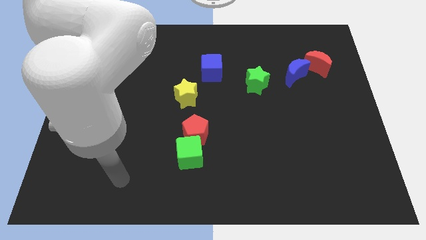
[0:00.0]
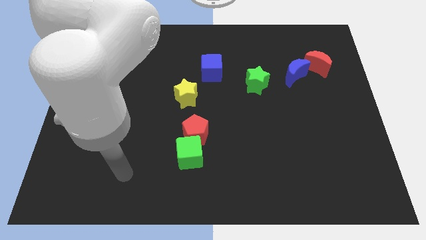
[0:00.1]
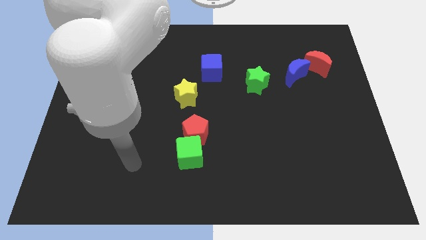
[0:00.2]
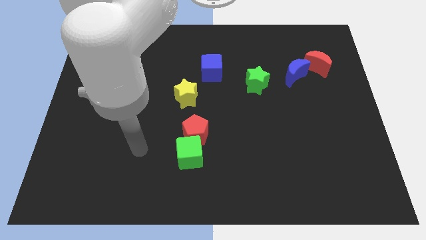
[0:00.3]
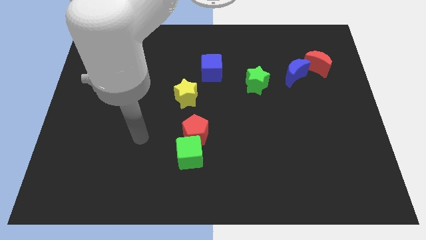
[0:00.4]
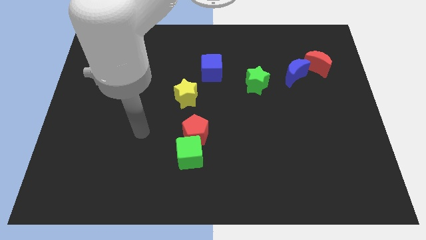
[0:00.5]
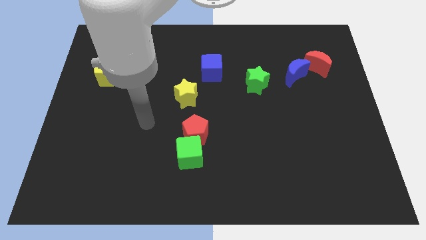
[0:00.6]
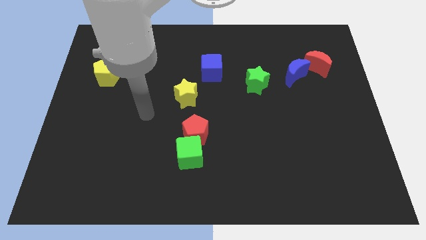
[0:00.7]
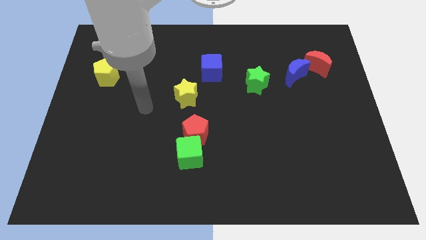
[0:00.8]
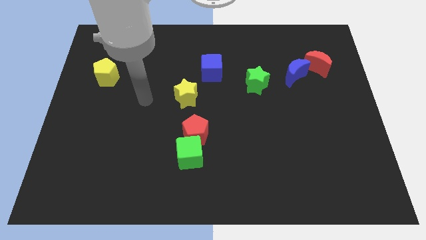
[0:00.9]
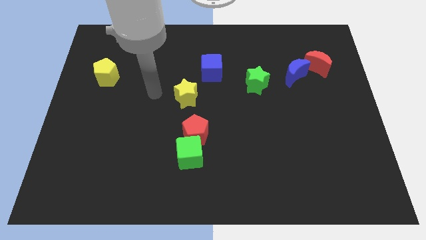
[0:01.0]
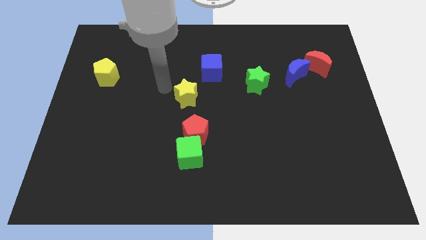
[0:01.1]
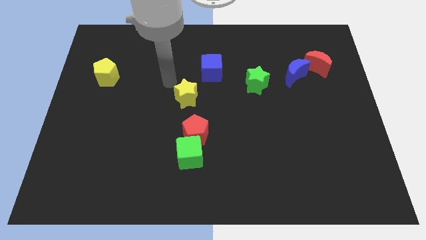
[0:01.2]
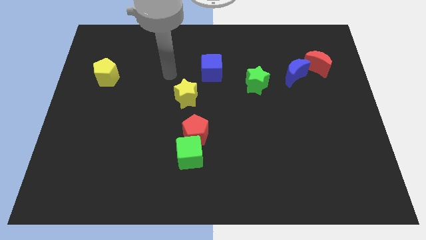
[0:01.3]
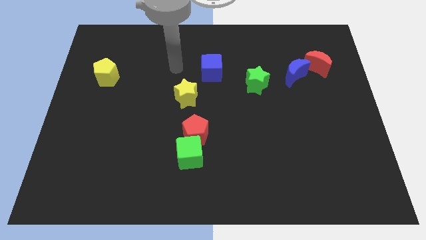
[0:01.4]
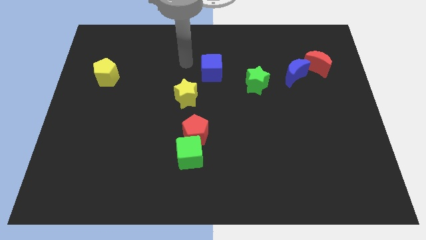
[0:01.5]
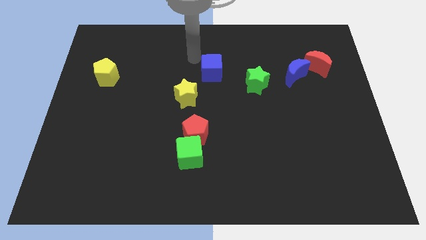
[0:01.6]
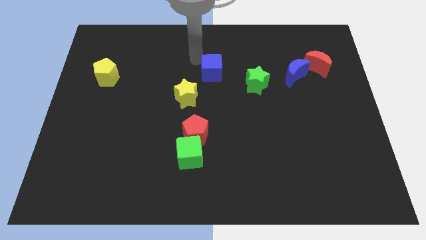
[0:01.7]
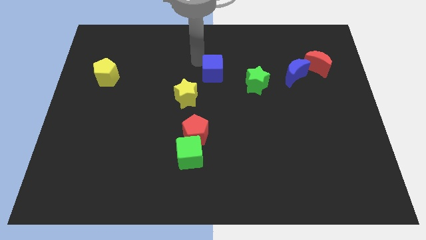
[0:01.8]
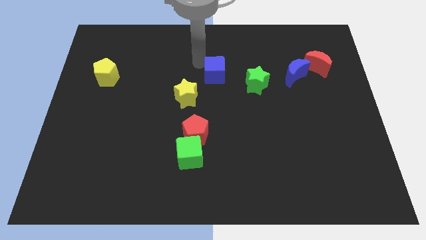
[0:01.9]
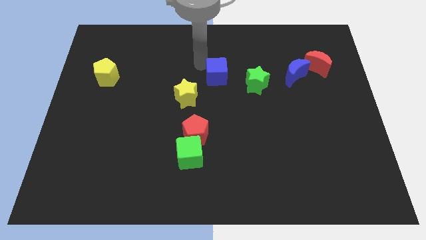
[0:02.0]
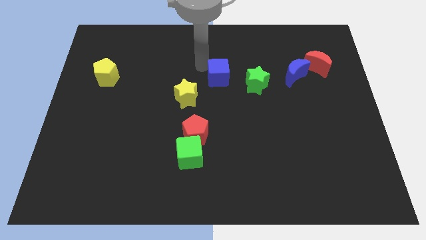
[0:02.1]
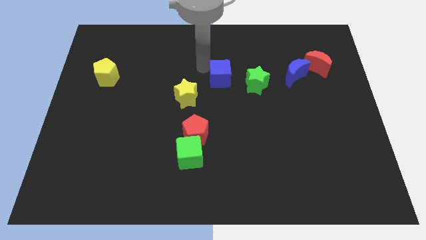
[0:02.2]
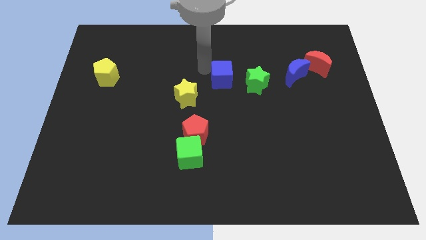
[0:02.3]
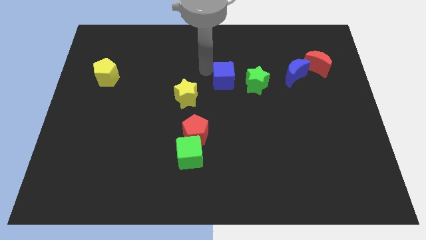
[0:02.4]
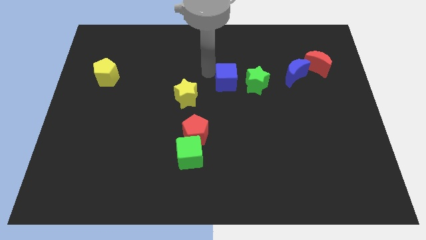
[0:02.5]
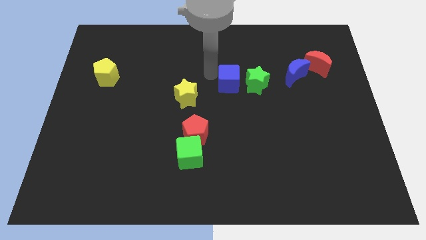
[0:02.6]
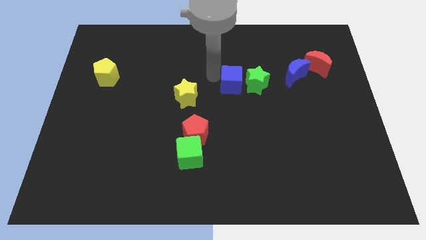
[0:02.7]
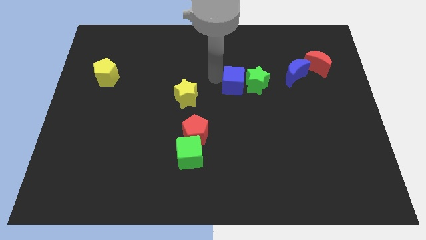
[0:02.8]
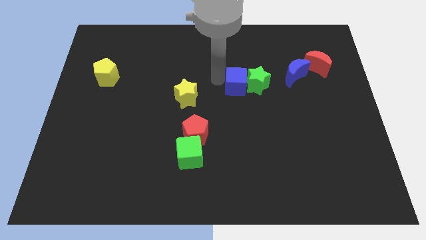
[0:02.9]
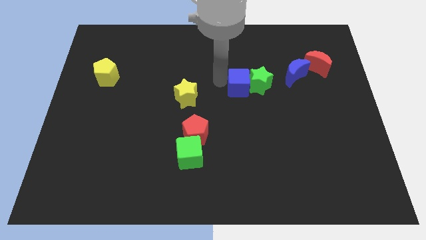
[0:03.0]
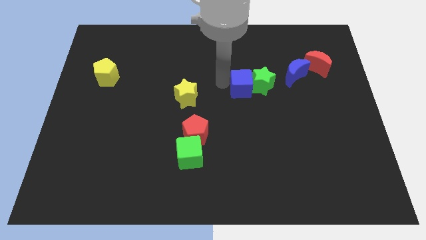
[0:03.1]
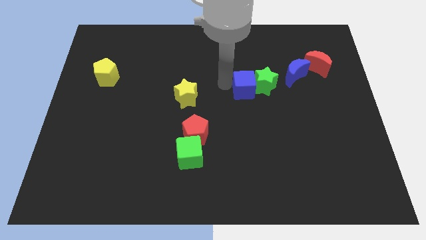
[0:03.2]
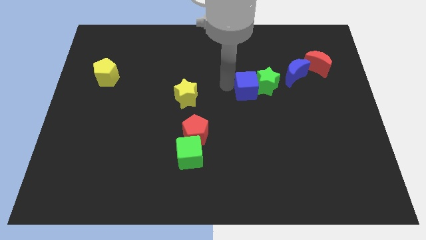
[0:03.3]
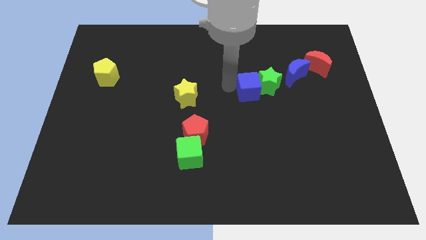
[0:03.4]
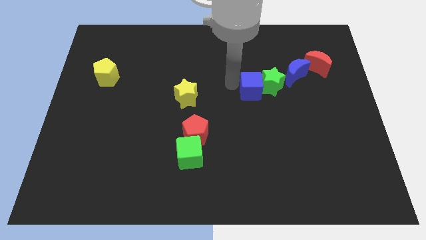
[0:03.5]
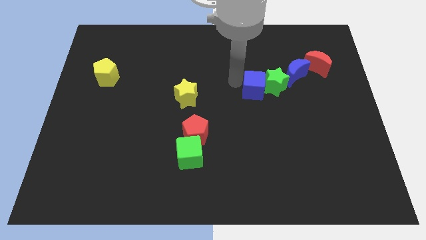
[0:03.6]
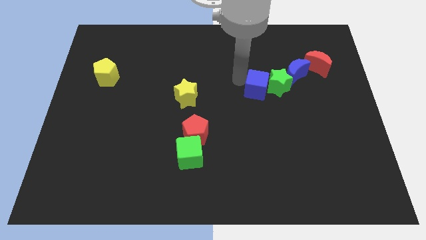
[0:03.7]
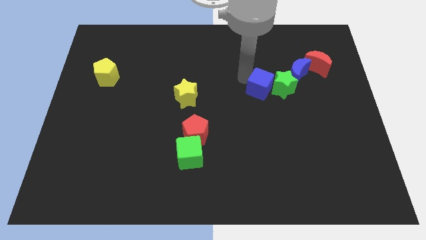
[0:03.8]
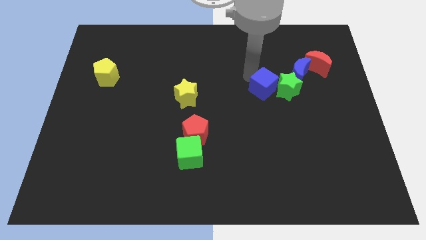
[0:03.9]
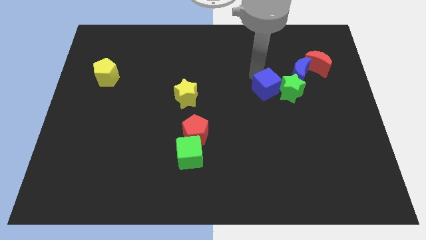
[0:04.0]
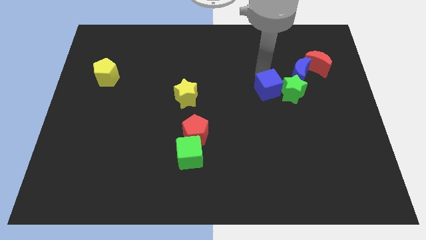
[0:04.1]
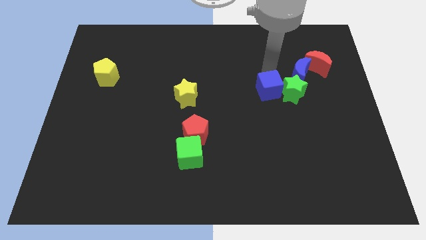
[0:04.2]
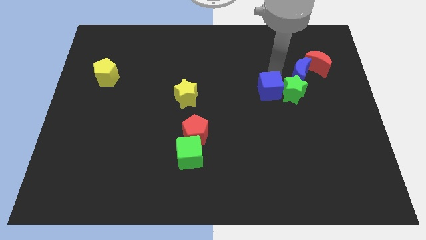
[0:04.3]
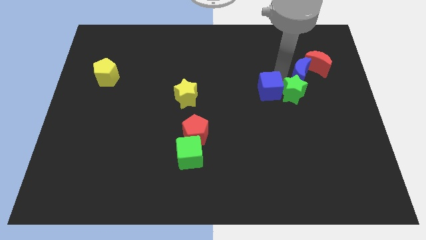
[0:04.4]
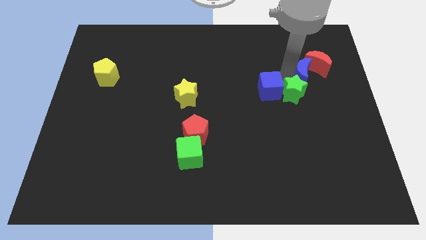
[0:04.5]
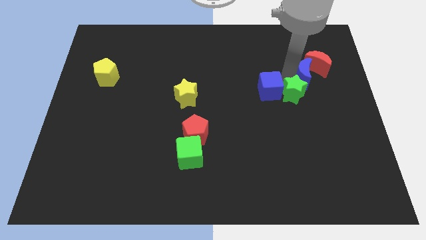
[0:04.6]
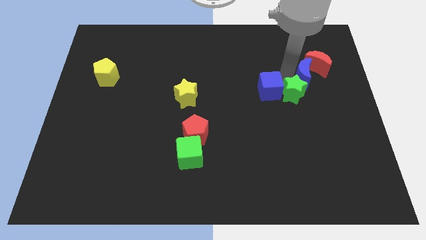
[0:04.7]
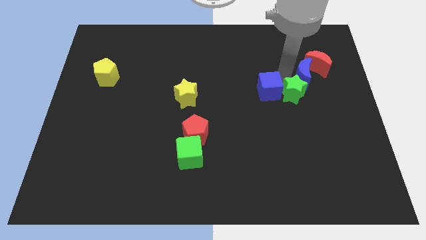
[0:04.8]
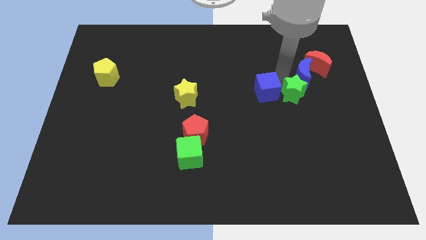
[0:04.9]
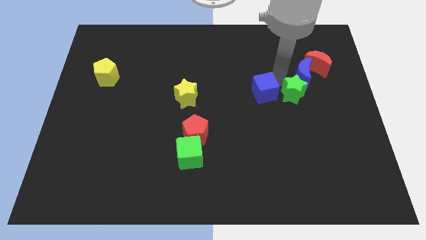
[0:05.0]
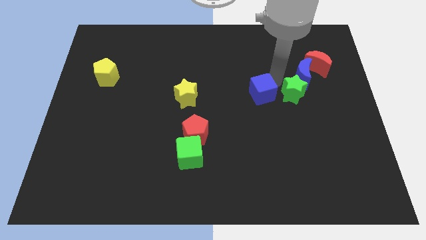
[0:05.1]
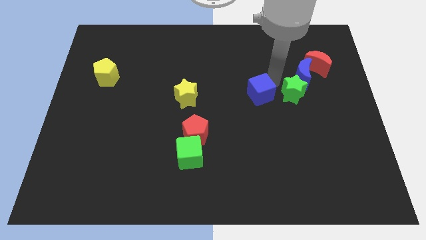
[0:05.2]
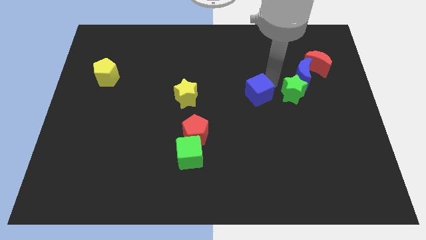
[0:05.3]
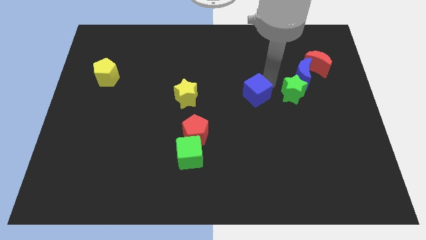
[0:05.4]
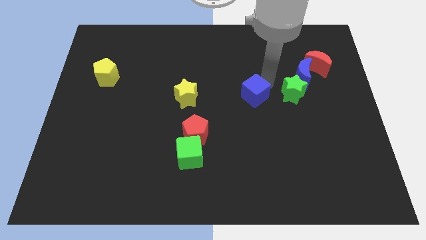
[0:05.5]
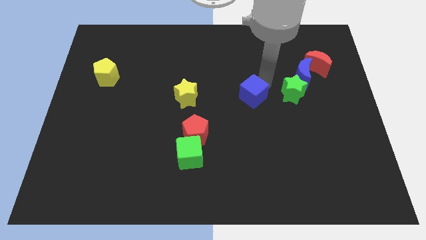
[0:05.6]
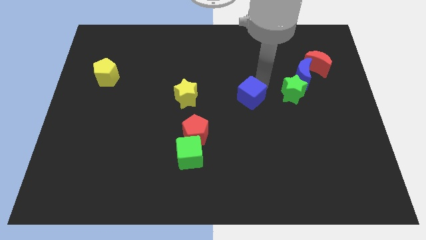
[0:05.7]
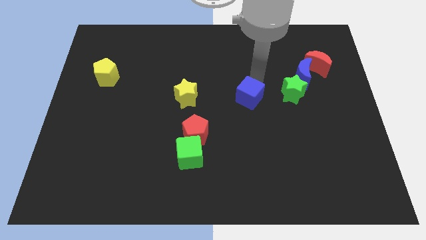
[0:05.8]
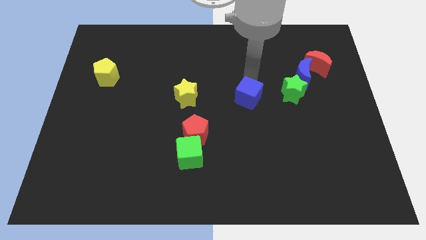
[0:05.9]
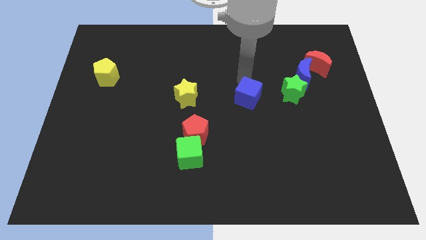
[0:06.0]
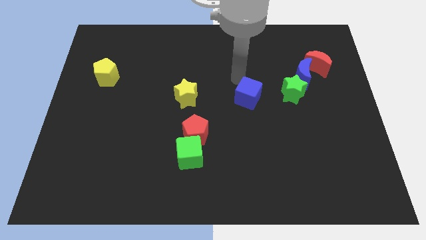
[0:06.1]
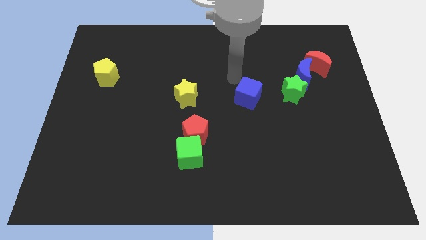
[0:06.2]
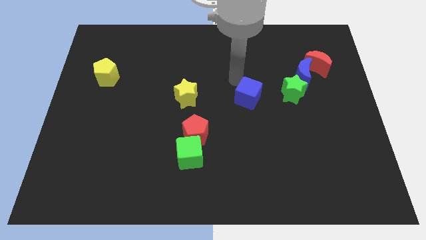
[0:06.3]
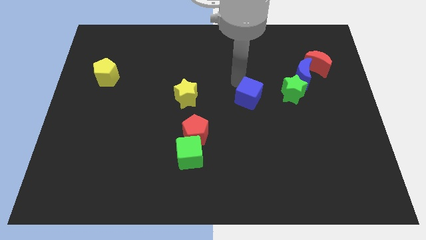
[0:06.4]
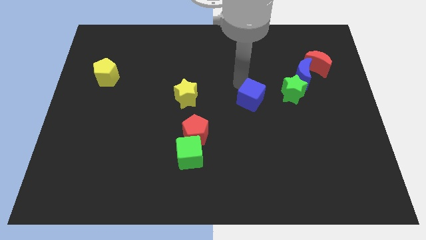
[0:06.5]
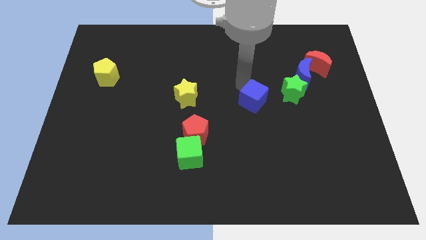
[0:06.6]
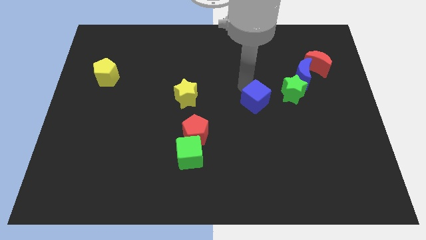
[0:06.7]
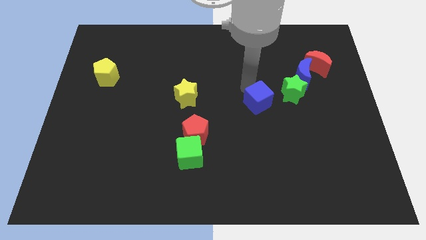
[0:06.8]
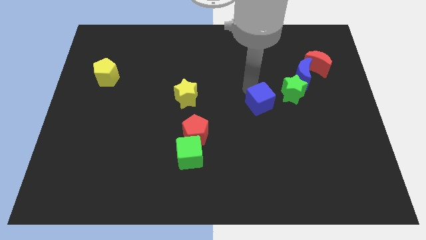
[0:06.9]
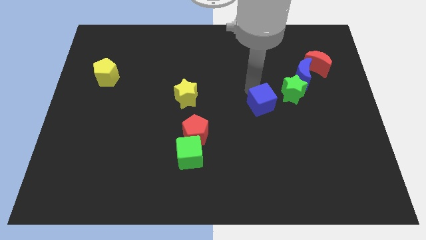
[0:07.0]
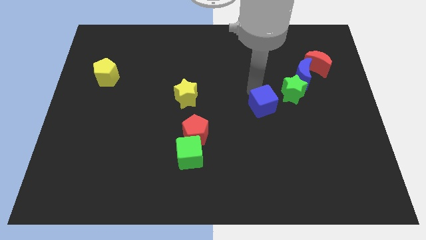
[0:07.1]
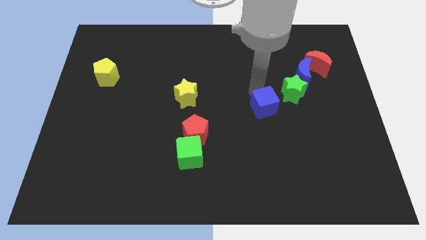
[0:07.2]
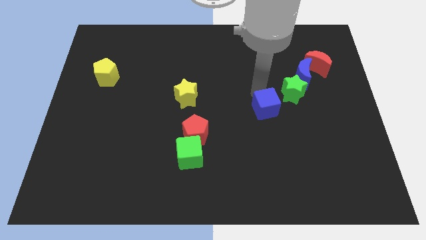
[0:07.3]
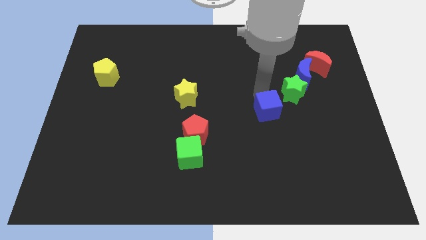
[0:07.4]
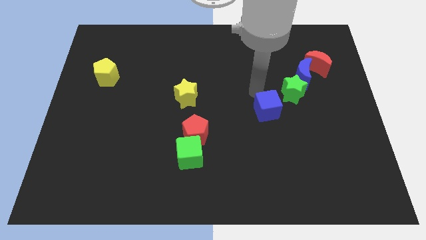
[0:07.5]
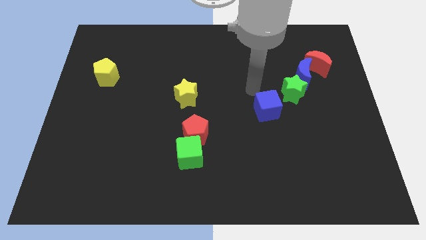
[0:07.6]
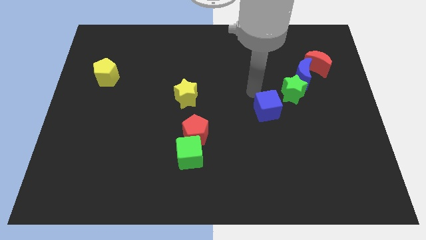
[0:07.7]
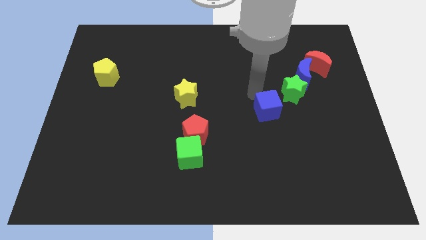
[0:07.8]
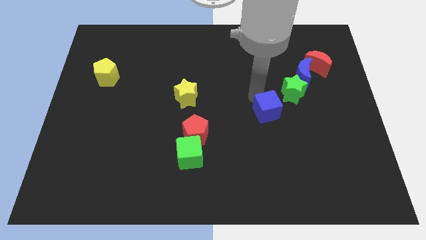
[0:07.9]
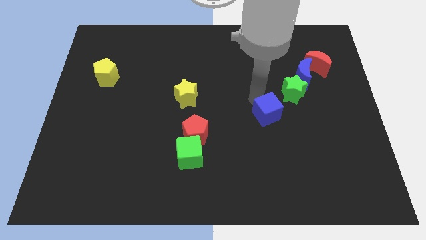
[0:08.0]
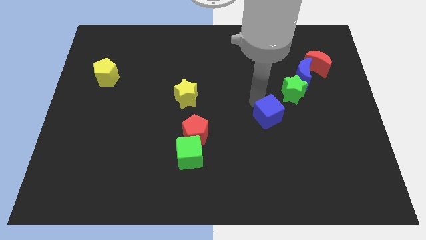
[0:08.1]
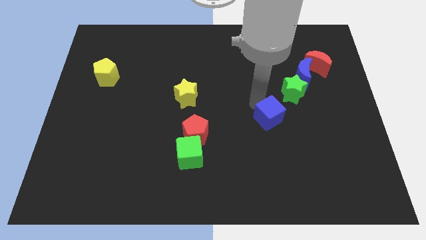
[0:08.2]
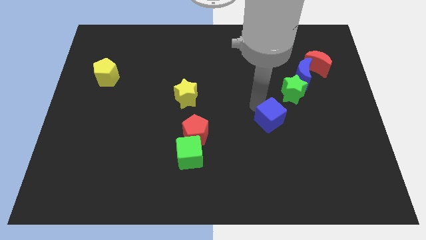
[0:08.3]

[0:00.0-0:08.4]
move the blue cube down and right diagonally
